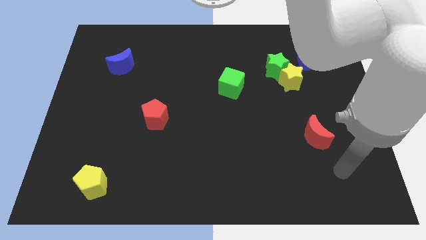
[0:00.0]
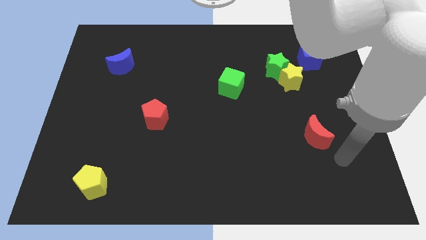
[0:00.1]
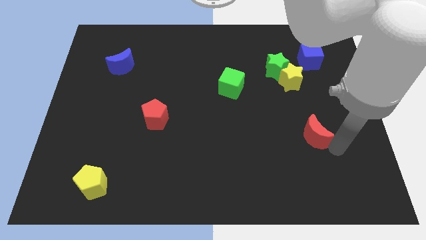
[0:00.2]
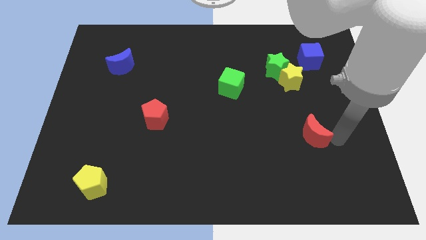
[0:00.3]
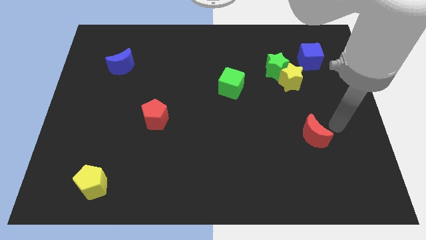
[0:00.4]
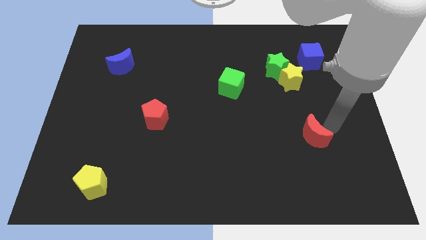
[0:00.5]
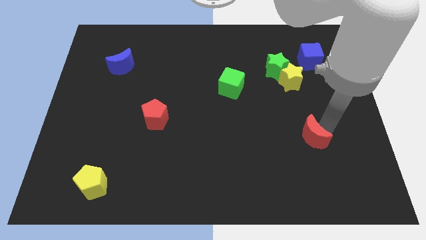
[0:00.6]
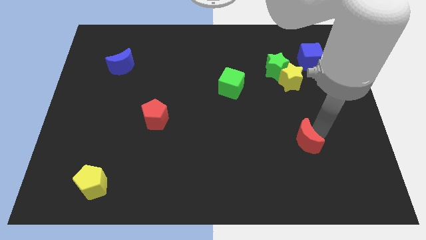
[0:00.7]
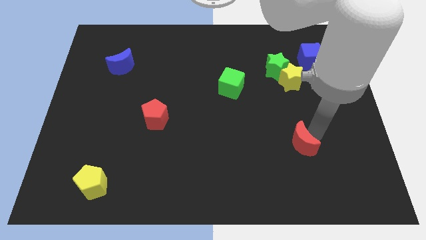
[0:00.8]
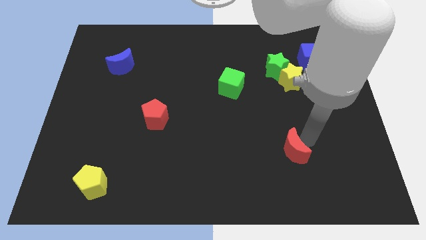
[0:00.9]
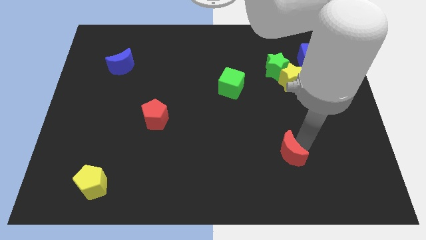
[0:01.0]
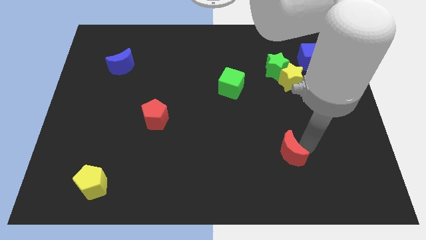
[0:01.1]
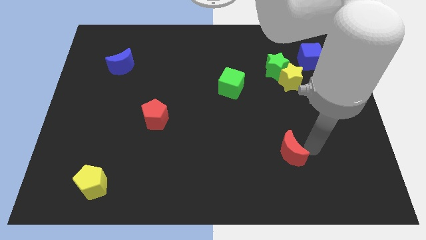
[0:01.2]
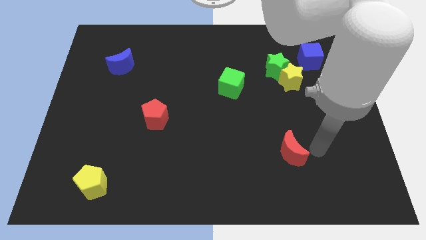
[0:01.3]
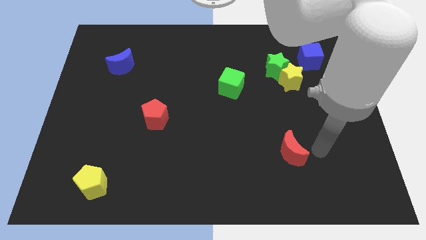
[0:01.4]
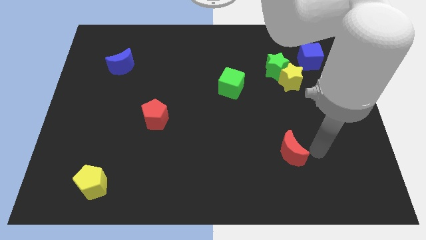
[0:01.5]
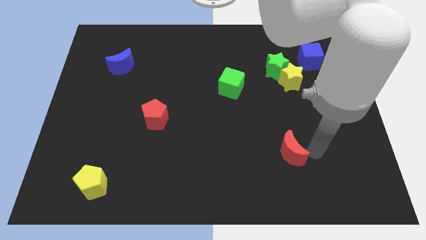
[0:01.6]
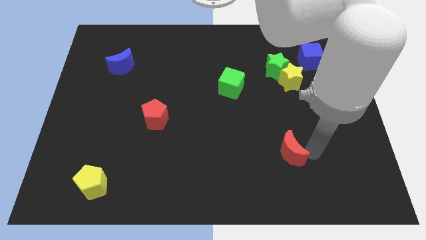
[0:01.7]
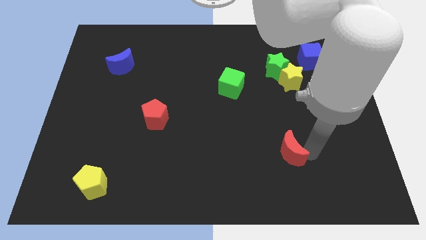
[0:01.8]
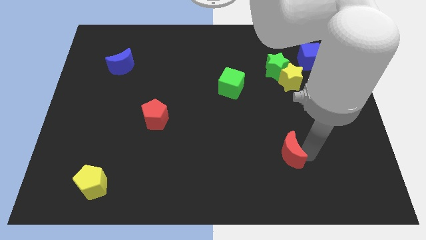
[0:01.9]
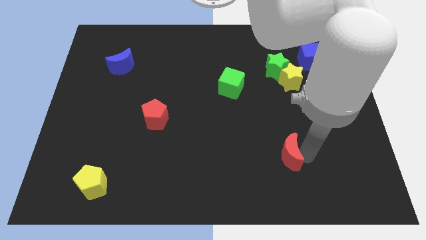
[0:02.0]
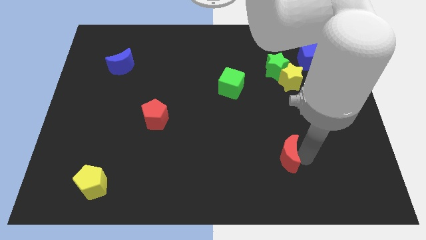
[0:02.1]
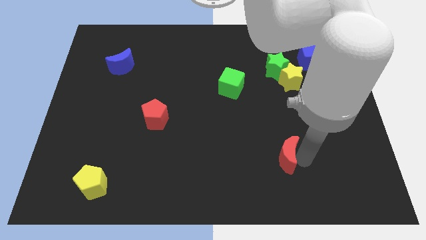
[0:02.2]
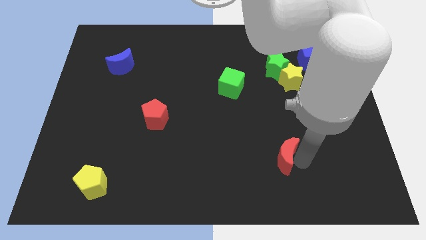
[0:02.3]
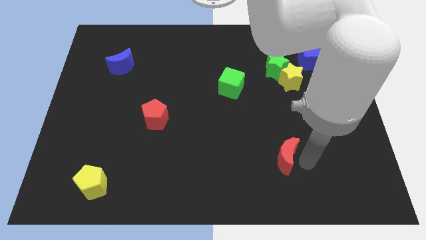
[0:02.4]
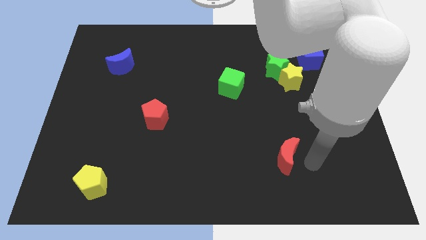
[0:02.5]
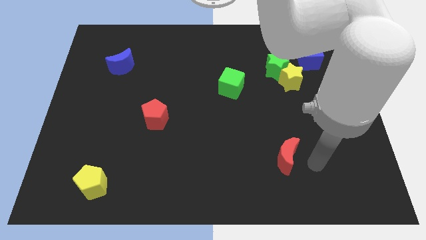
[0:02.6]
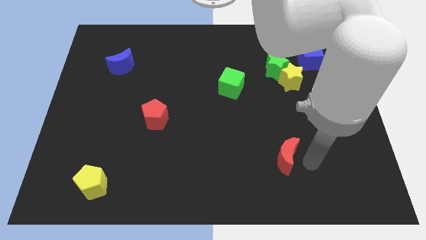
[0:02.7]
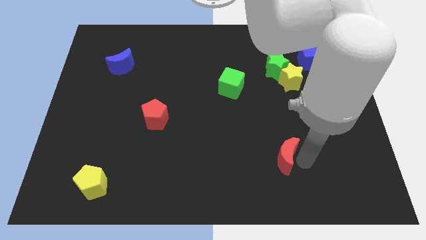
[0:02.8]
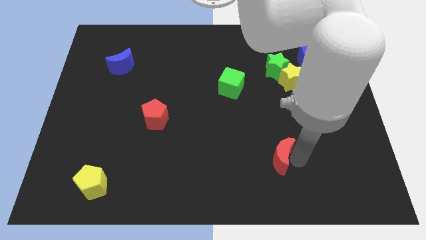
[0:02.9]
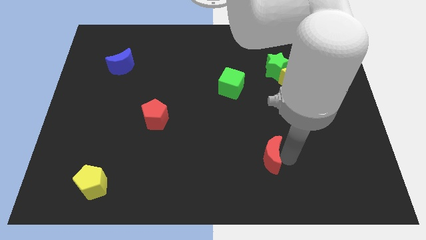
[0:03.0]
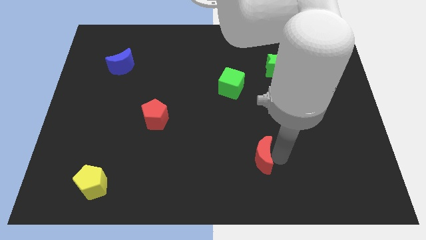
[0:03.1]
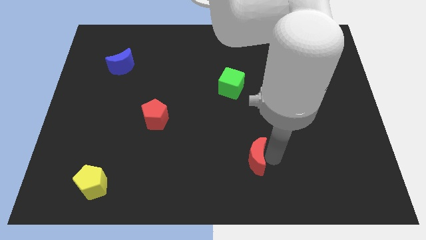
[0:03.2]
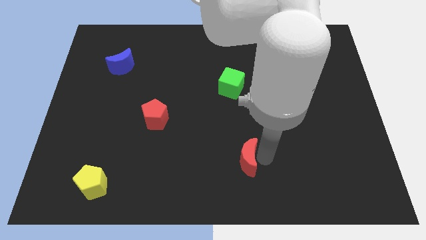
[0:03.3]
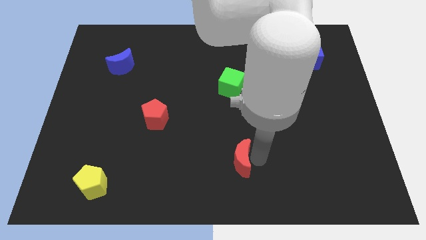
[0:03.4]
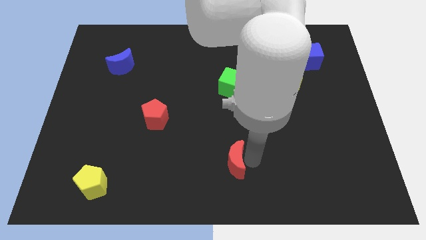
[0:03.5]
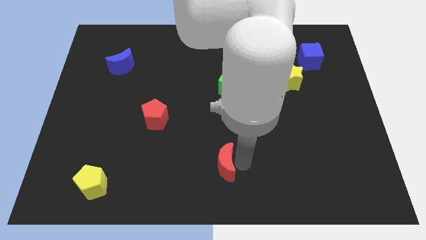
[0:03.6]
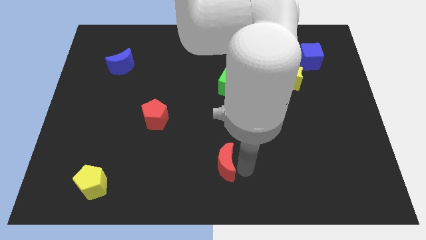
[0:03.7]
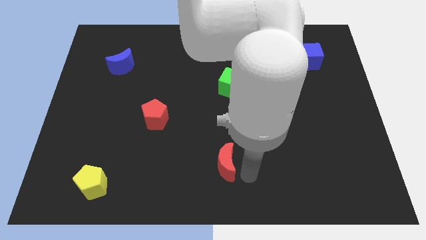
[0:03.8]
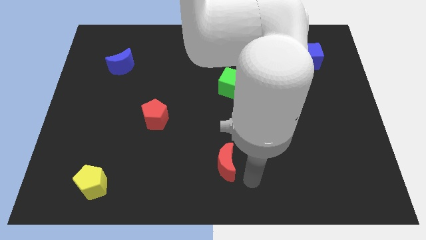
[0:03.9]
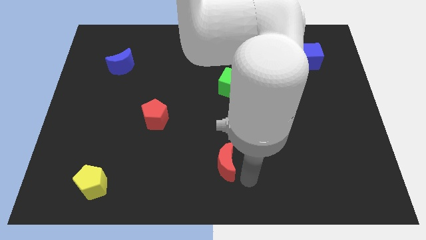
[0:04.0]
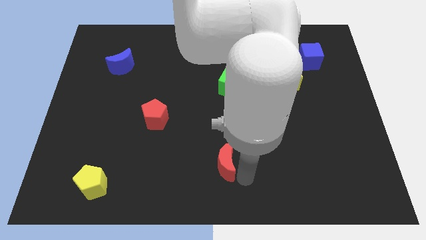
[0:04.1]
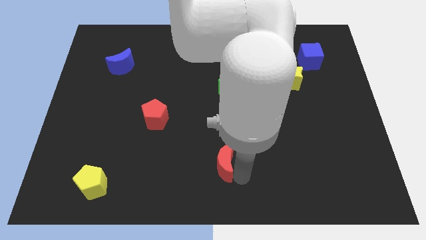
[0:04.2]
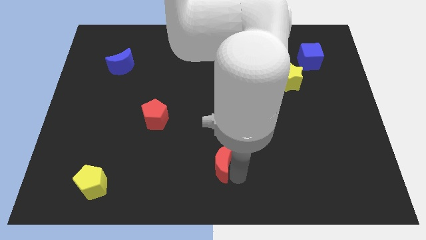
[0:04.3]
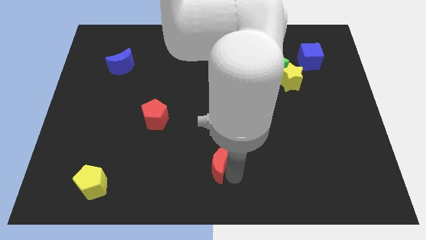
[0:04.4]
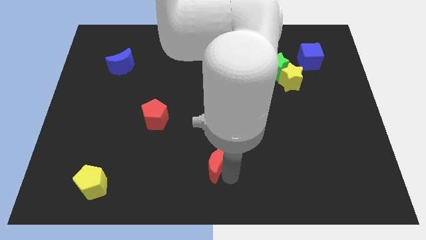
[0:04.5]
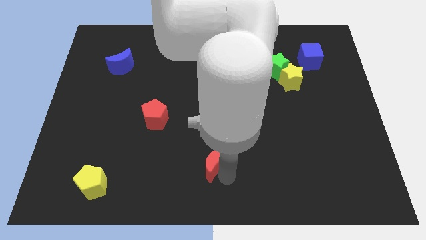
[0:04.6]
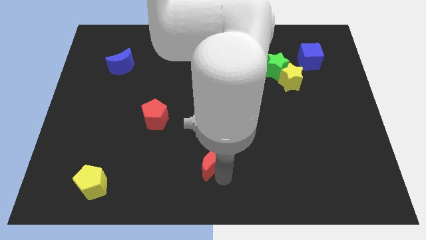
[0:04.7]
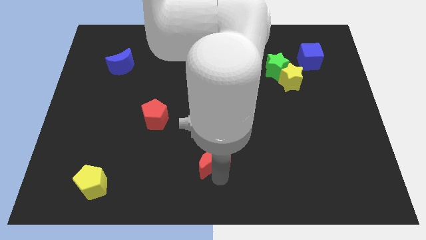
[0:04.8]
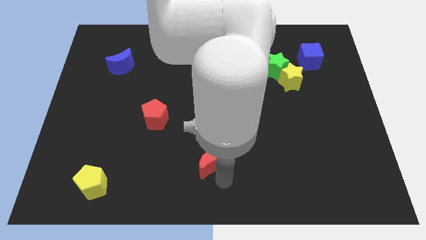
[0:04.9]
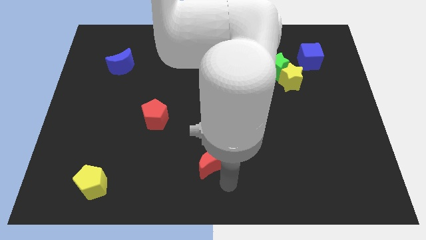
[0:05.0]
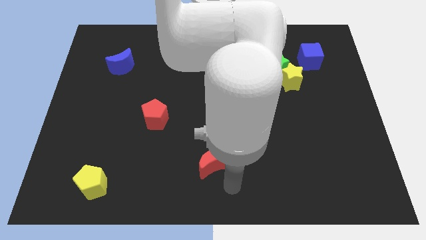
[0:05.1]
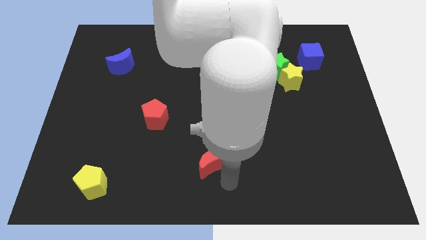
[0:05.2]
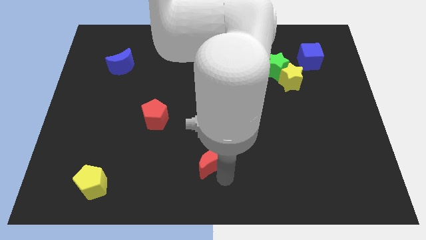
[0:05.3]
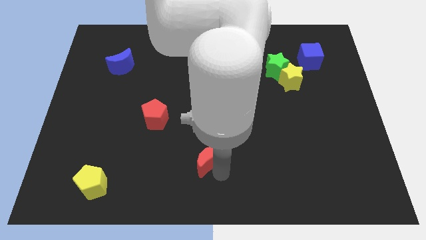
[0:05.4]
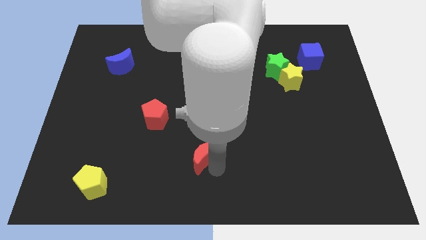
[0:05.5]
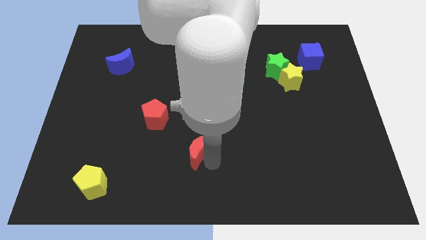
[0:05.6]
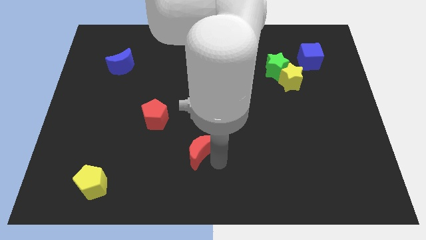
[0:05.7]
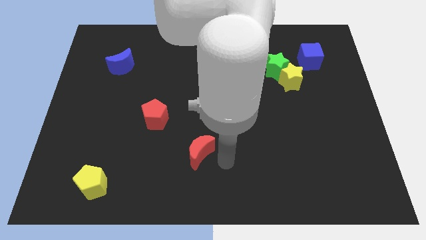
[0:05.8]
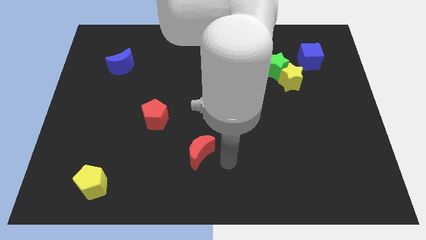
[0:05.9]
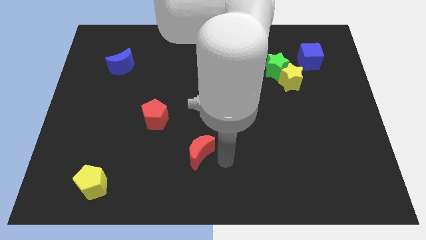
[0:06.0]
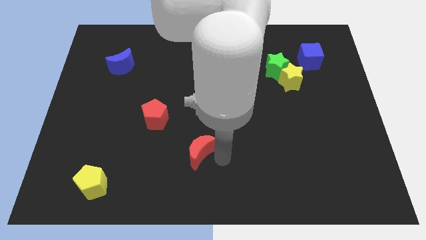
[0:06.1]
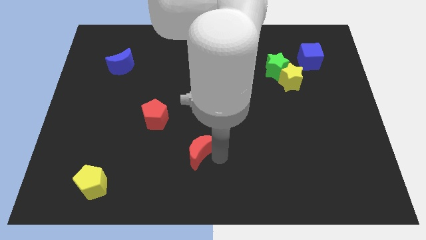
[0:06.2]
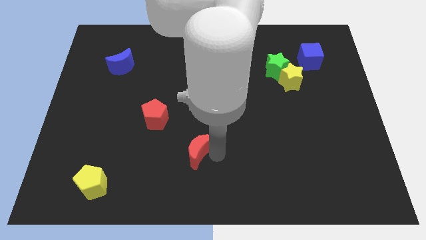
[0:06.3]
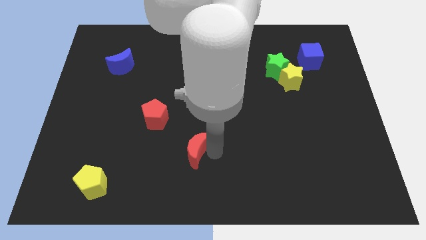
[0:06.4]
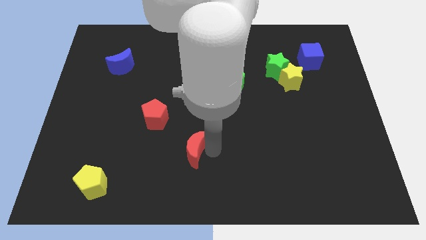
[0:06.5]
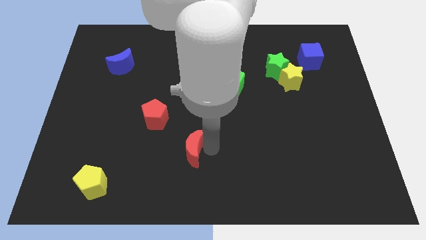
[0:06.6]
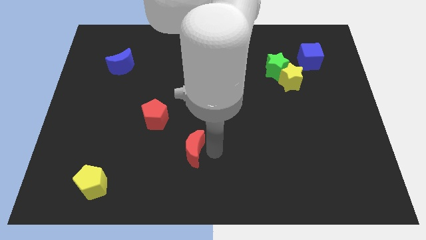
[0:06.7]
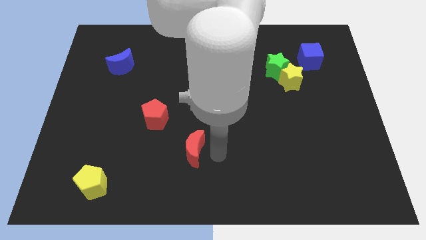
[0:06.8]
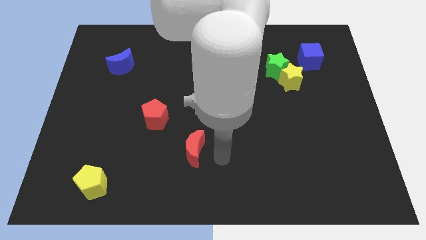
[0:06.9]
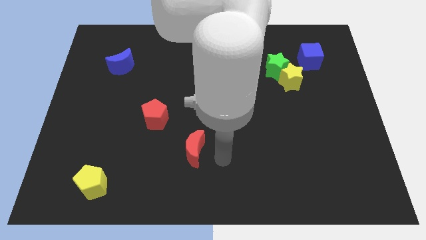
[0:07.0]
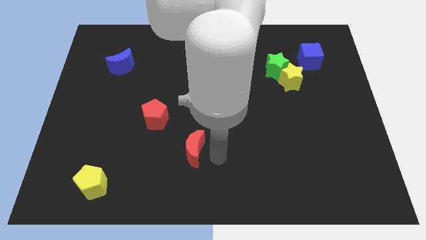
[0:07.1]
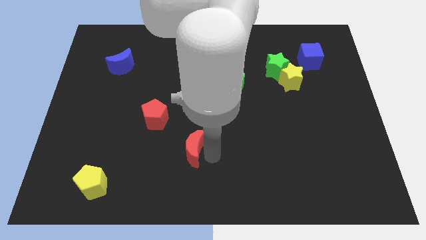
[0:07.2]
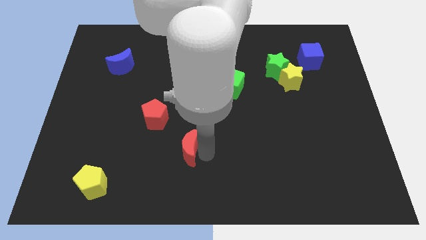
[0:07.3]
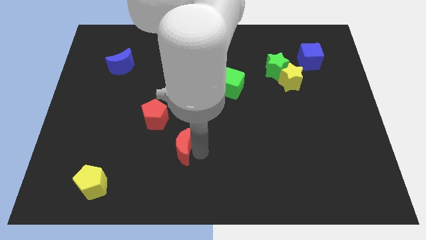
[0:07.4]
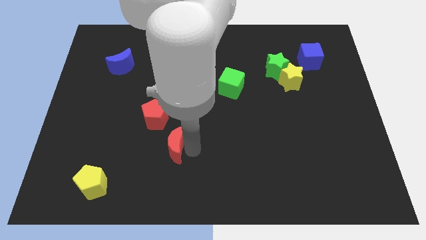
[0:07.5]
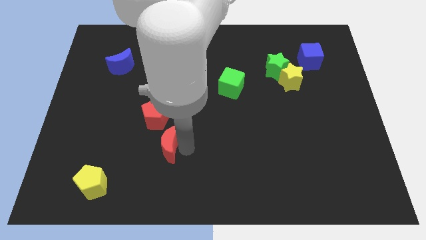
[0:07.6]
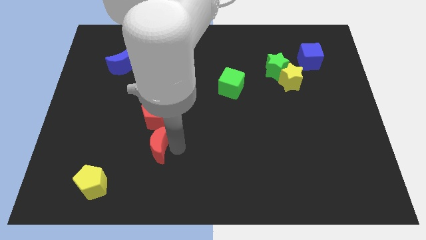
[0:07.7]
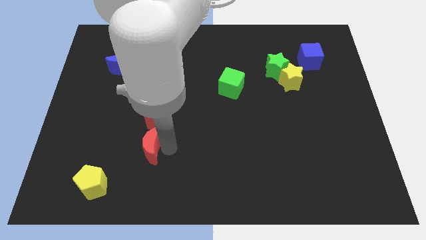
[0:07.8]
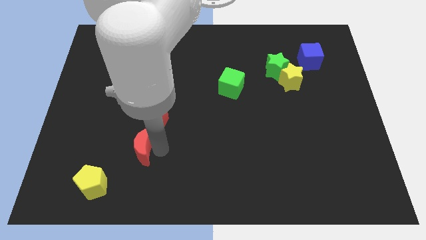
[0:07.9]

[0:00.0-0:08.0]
slide the red moon to the bottom left side of the red pentagon
